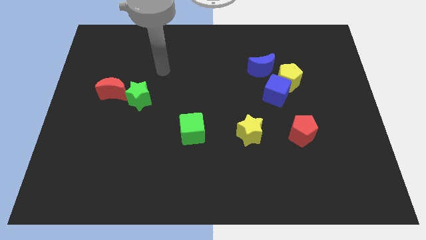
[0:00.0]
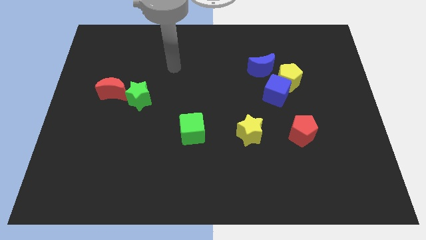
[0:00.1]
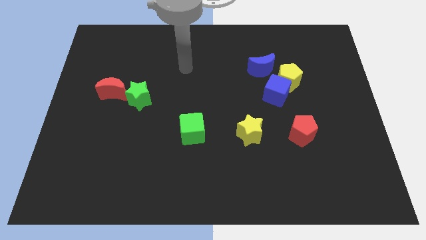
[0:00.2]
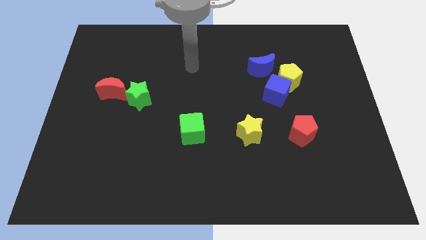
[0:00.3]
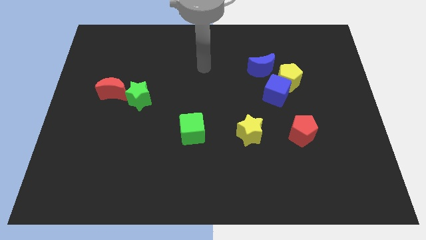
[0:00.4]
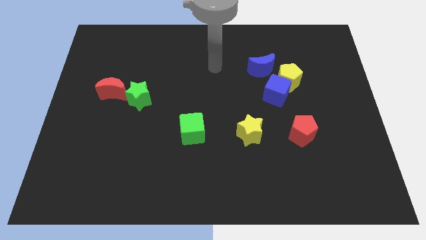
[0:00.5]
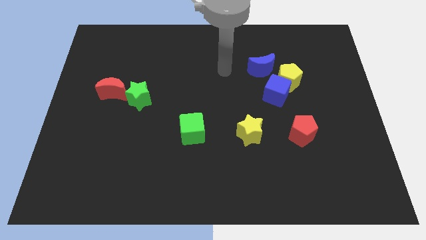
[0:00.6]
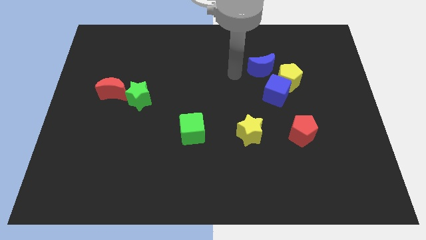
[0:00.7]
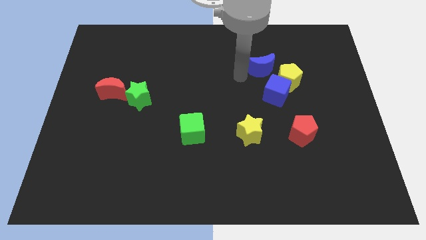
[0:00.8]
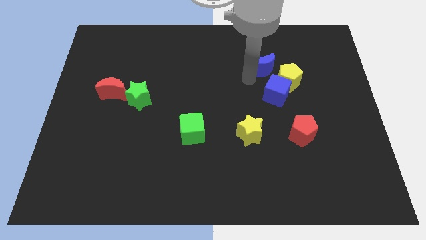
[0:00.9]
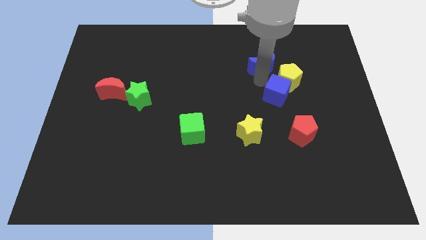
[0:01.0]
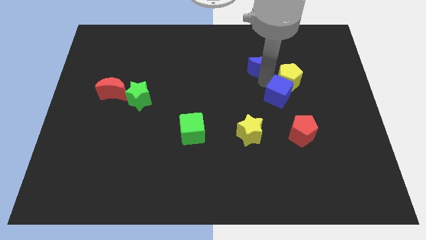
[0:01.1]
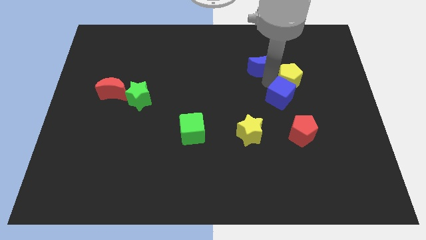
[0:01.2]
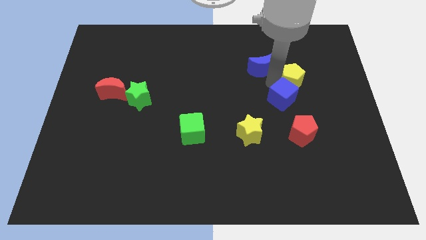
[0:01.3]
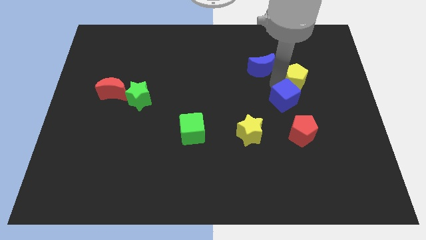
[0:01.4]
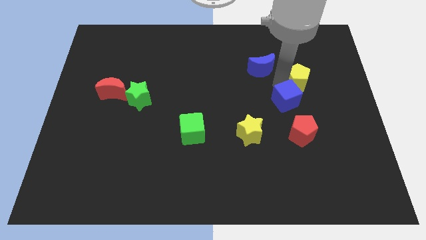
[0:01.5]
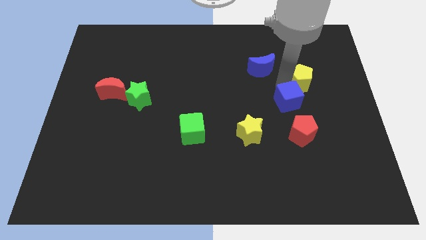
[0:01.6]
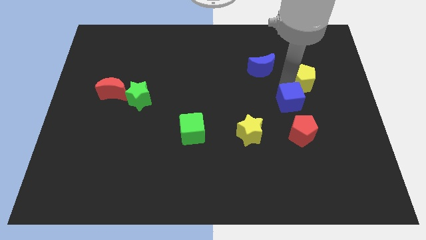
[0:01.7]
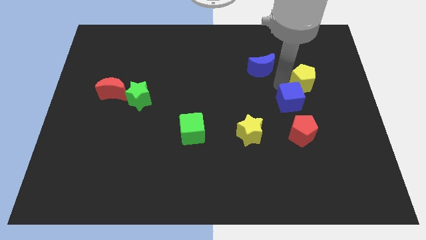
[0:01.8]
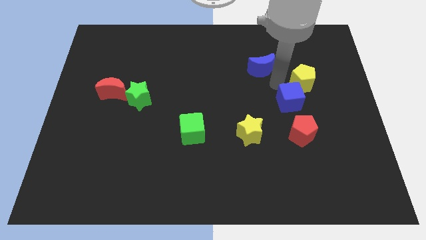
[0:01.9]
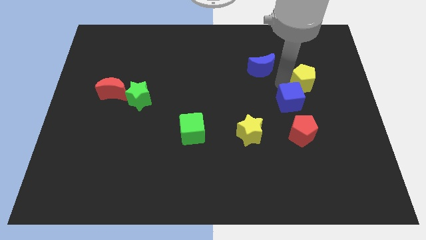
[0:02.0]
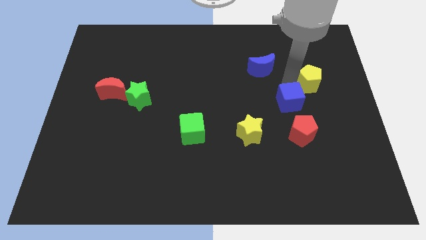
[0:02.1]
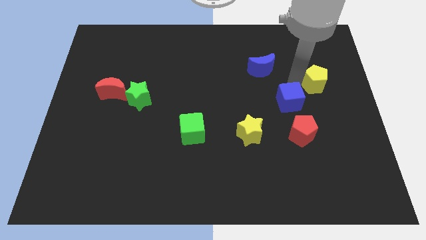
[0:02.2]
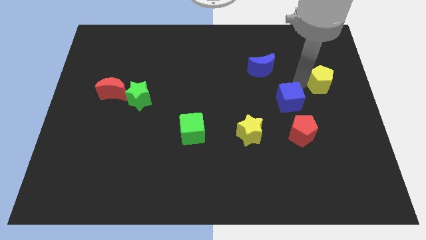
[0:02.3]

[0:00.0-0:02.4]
move the yellow pentagon away from the blue cube and blue moon

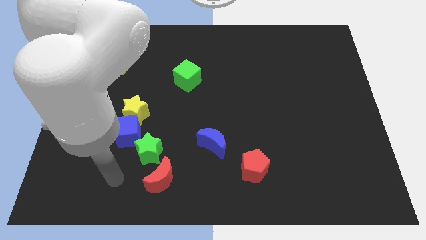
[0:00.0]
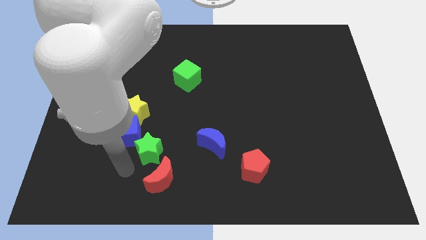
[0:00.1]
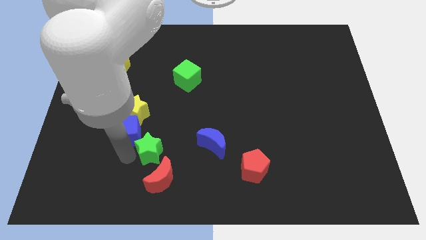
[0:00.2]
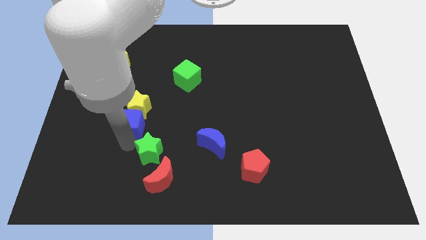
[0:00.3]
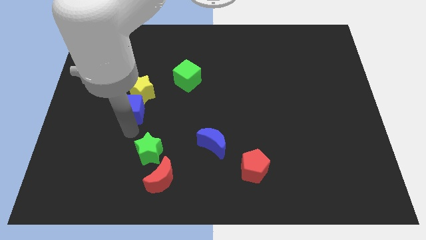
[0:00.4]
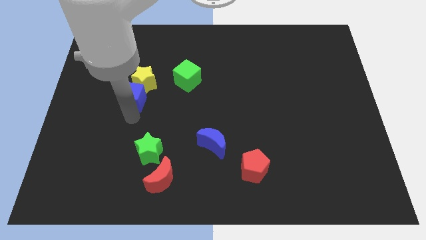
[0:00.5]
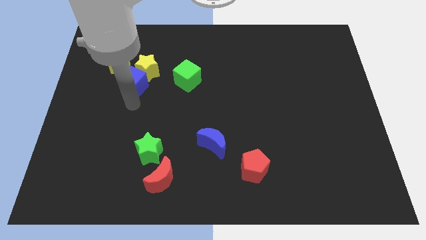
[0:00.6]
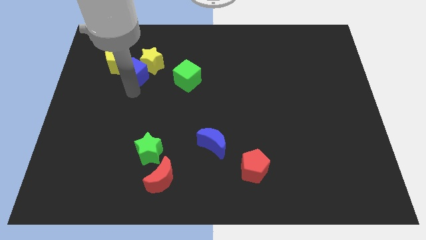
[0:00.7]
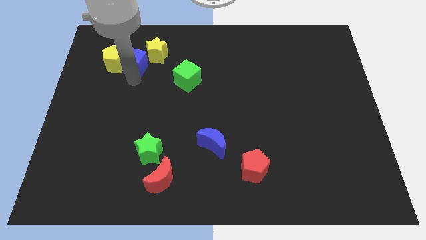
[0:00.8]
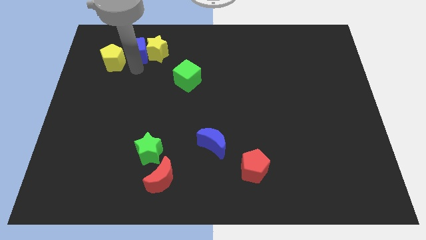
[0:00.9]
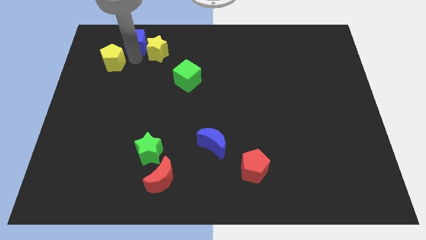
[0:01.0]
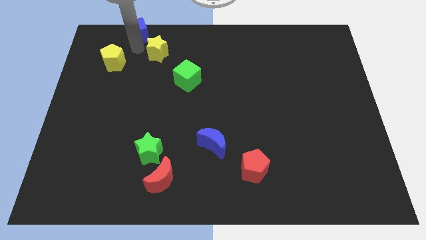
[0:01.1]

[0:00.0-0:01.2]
pull the yellow star apart from the blue cube

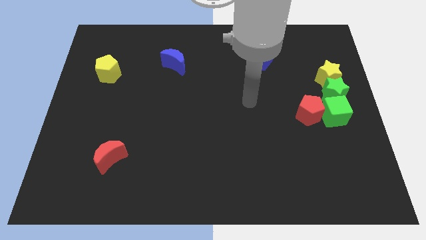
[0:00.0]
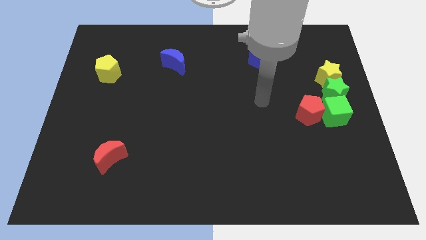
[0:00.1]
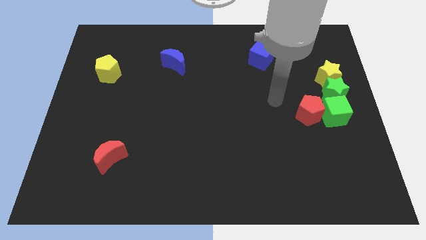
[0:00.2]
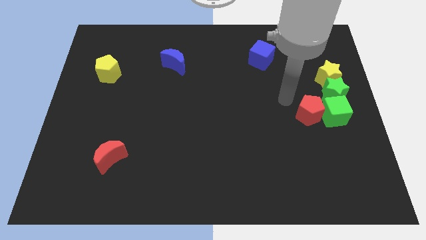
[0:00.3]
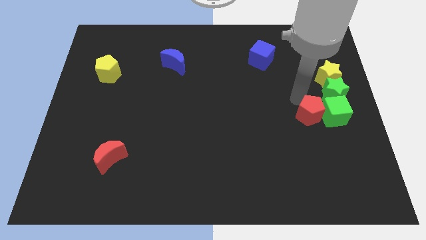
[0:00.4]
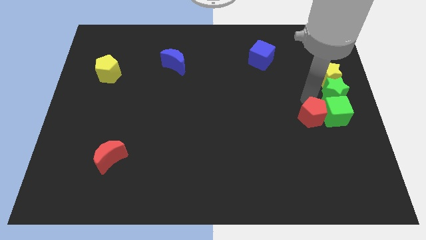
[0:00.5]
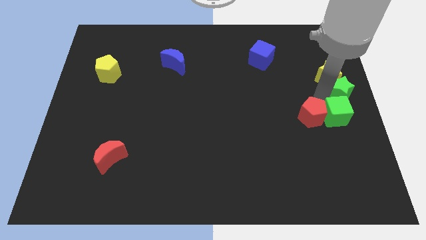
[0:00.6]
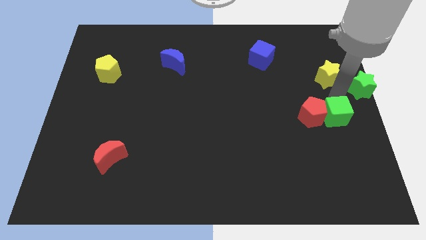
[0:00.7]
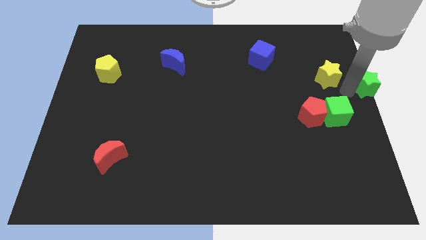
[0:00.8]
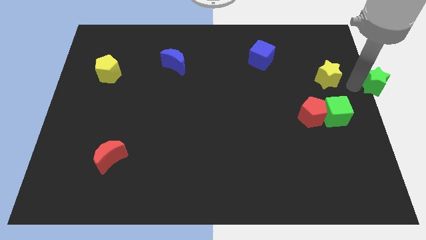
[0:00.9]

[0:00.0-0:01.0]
separate the yellow star from the green star

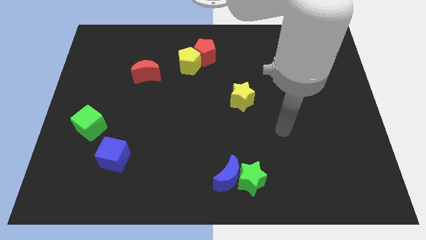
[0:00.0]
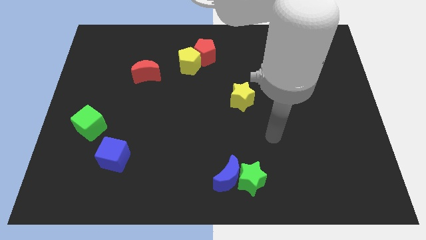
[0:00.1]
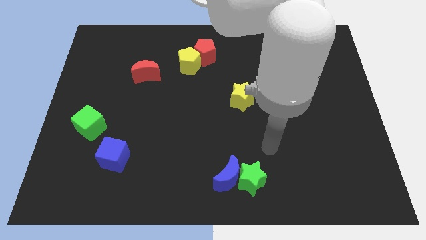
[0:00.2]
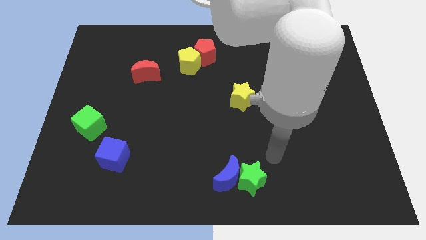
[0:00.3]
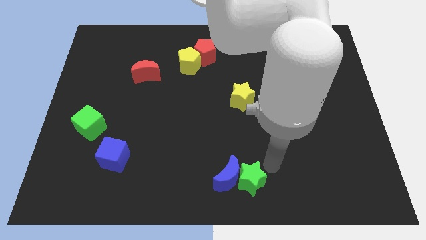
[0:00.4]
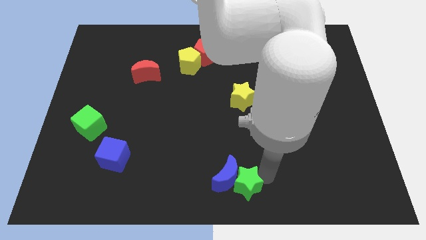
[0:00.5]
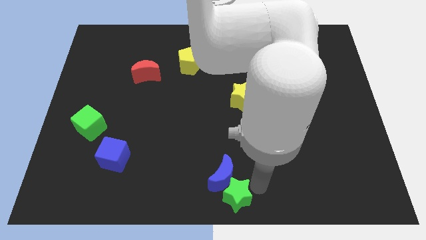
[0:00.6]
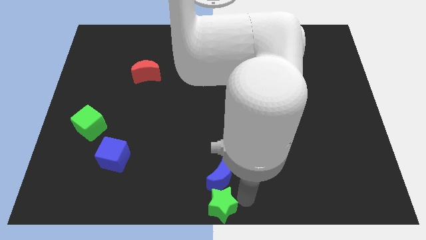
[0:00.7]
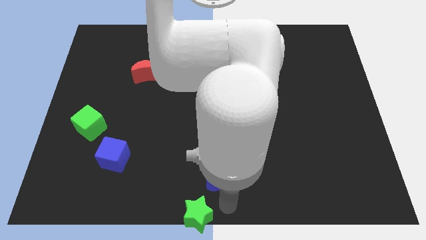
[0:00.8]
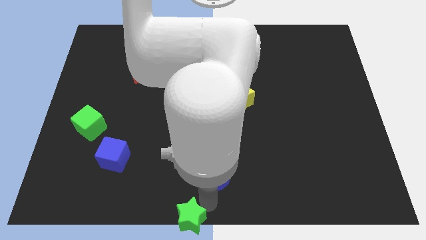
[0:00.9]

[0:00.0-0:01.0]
pull the blue moon apart from the green star

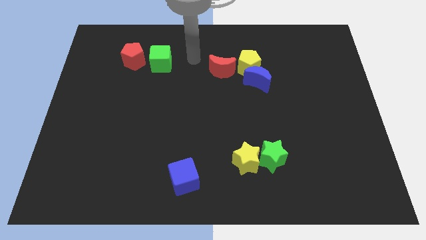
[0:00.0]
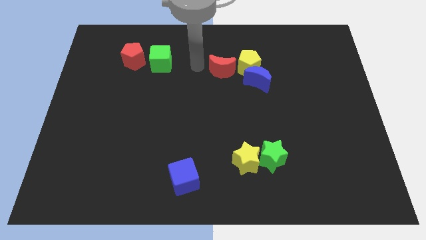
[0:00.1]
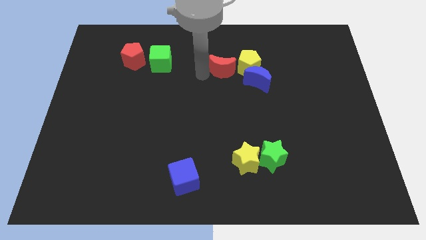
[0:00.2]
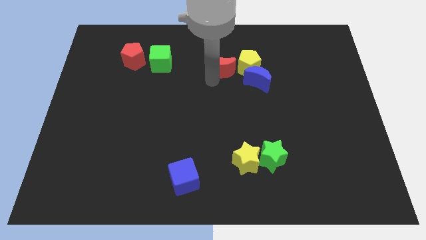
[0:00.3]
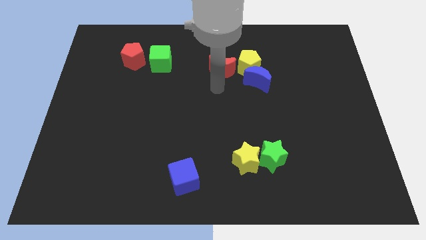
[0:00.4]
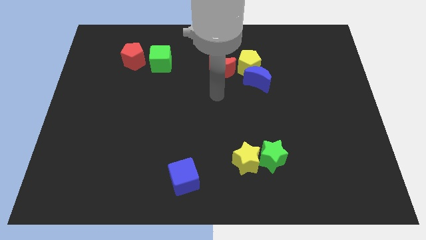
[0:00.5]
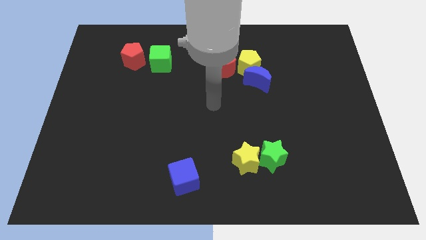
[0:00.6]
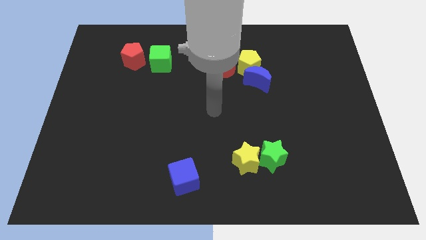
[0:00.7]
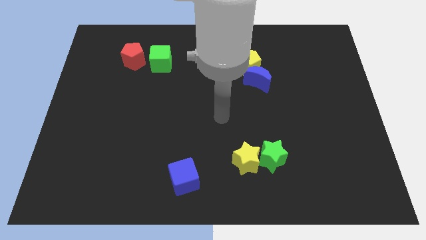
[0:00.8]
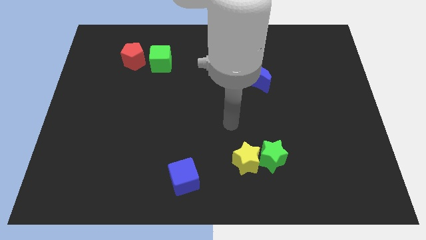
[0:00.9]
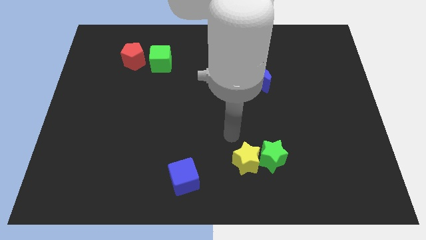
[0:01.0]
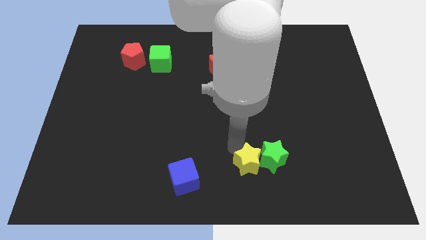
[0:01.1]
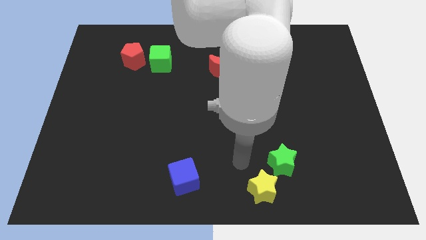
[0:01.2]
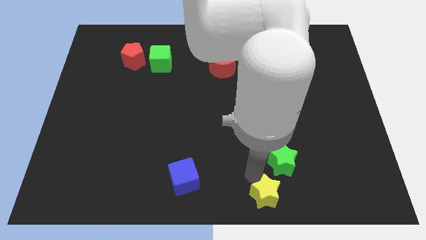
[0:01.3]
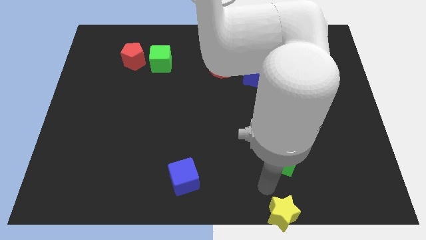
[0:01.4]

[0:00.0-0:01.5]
move the green star away from the yellow star

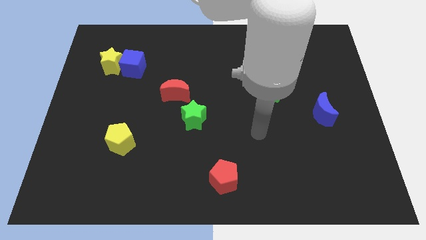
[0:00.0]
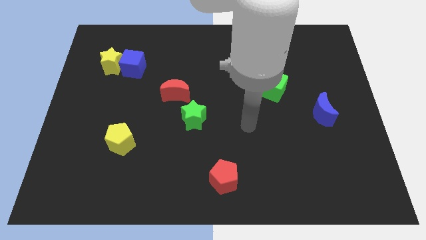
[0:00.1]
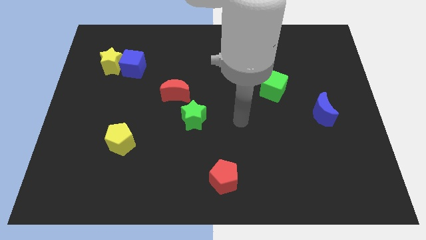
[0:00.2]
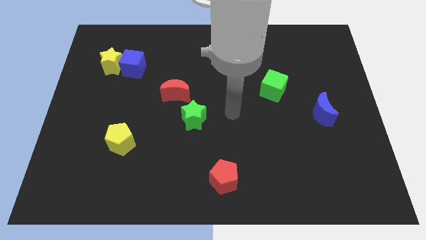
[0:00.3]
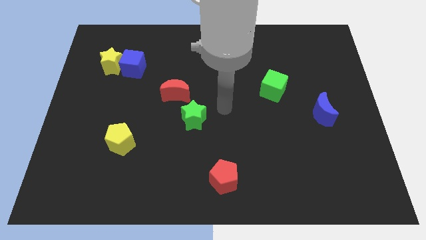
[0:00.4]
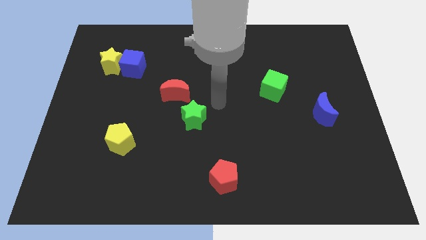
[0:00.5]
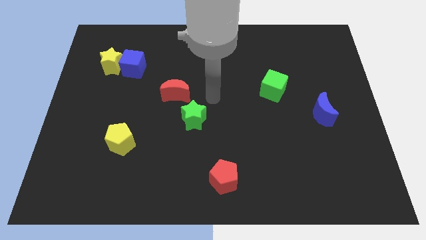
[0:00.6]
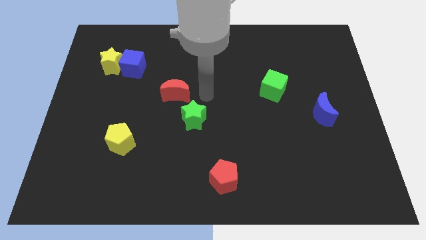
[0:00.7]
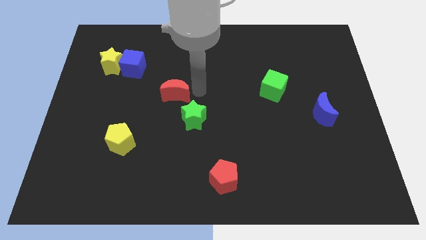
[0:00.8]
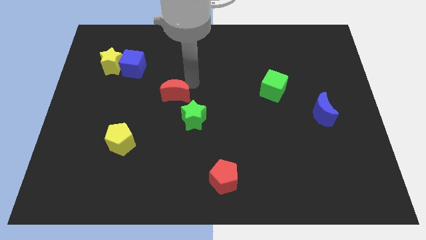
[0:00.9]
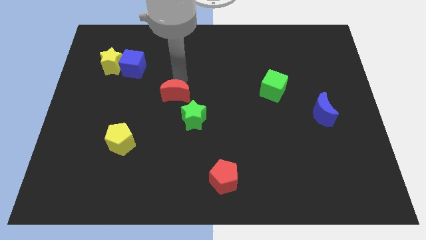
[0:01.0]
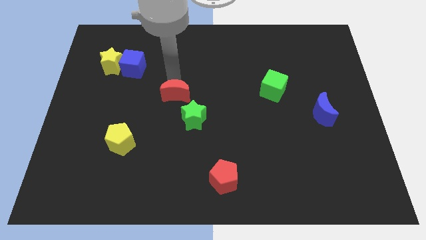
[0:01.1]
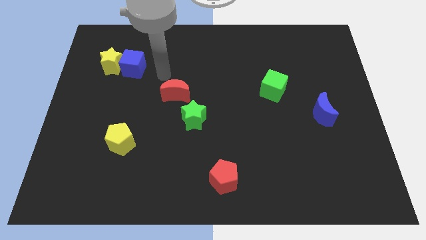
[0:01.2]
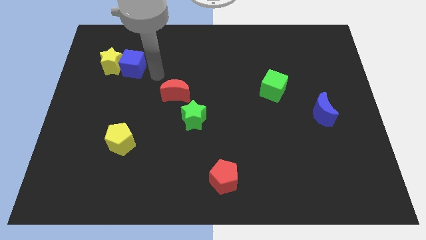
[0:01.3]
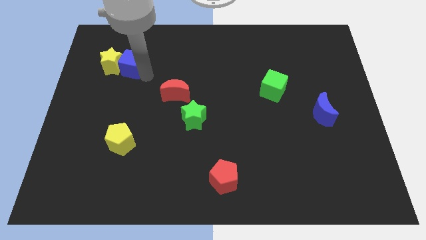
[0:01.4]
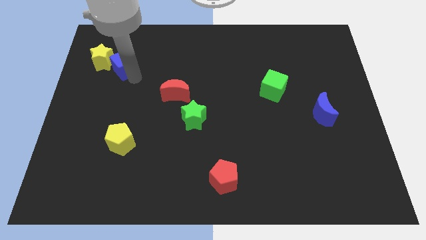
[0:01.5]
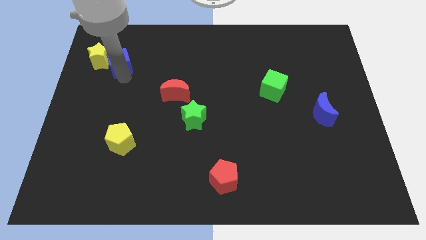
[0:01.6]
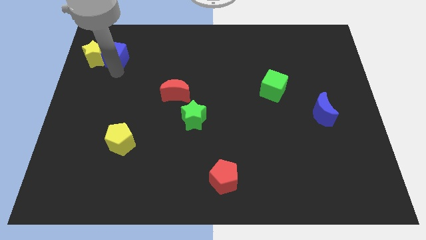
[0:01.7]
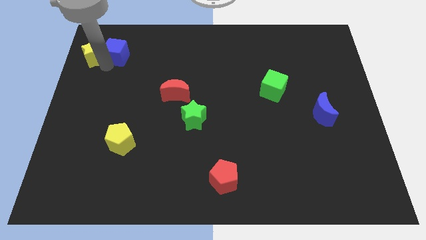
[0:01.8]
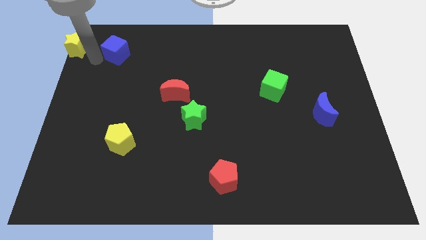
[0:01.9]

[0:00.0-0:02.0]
separate the blue cube from the yellow star

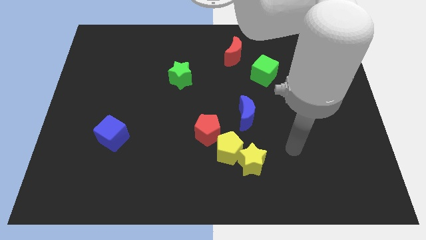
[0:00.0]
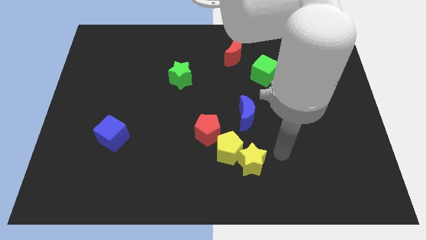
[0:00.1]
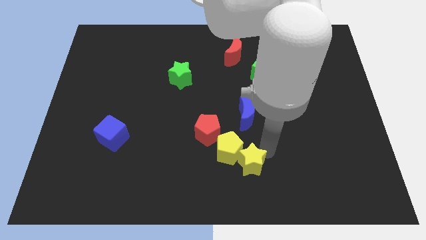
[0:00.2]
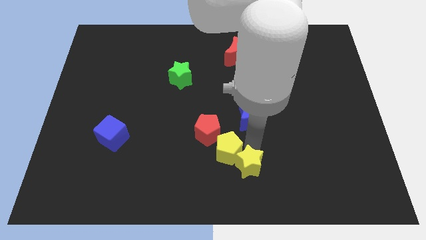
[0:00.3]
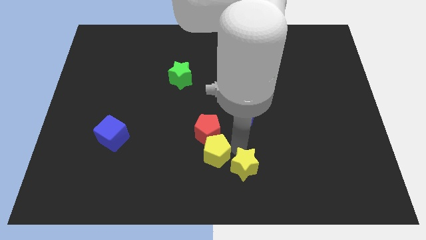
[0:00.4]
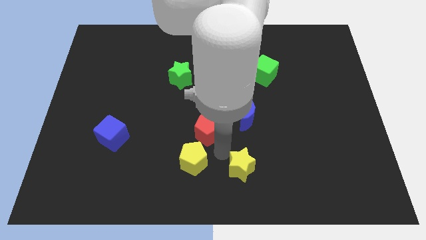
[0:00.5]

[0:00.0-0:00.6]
separate the yellow star from the yellow pentagon
